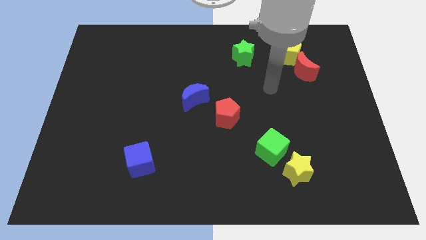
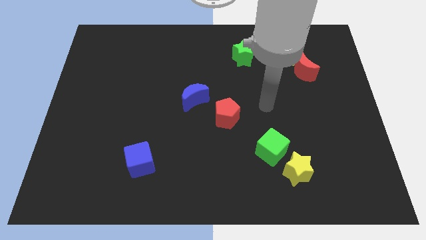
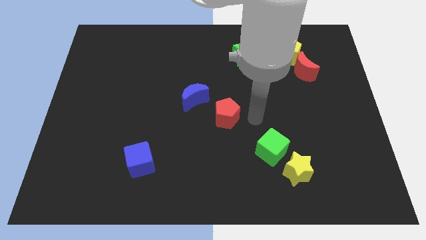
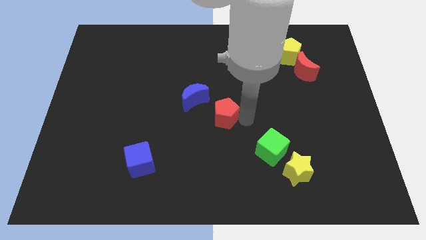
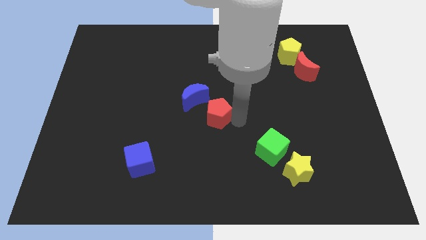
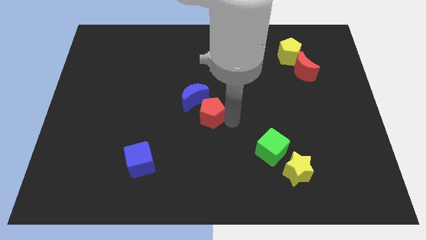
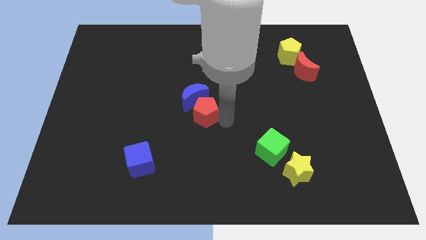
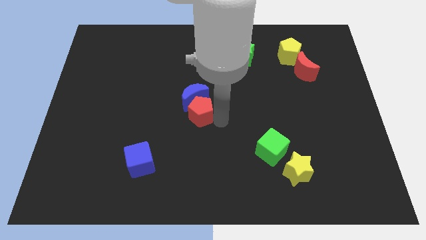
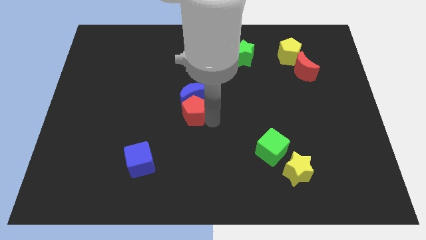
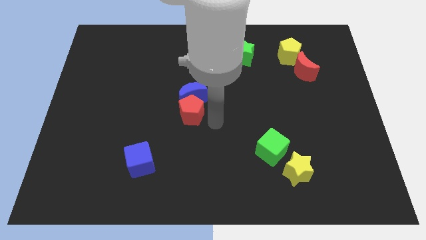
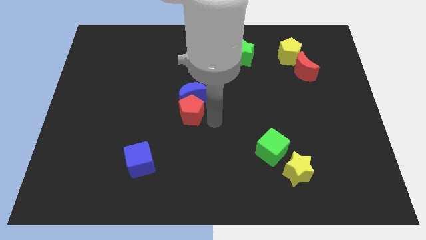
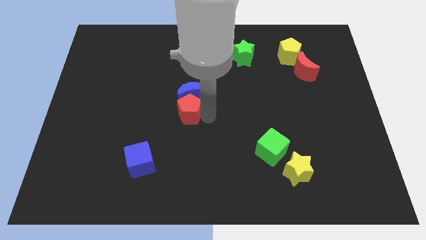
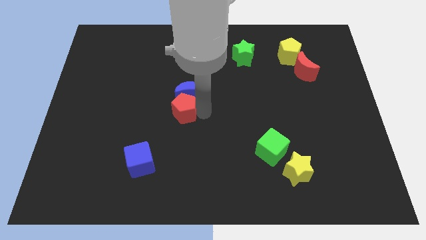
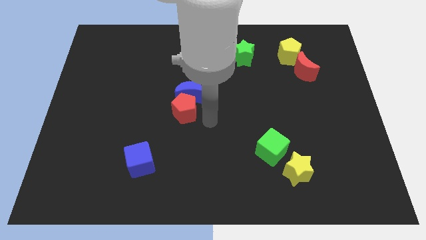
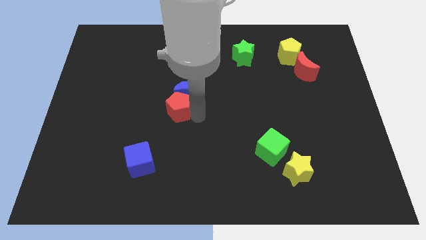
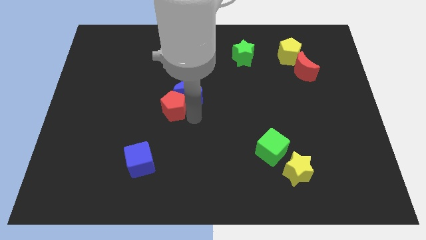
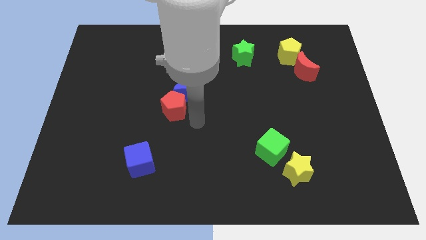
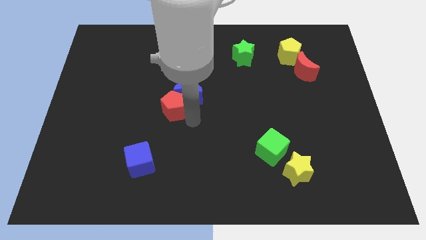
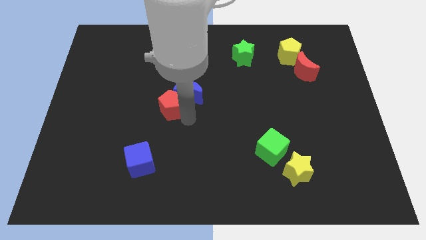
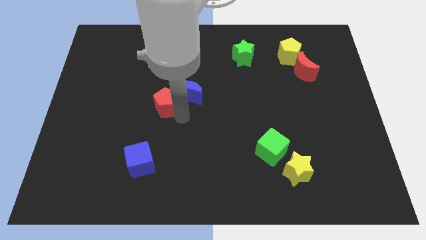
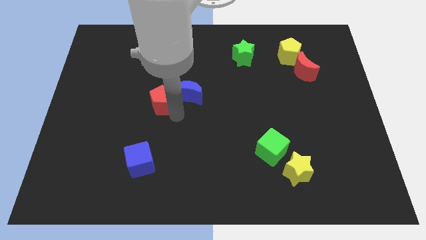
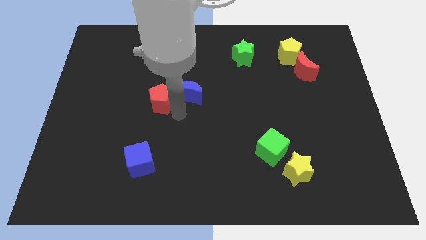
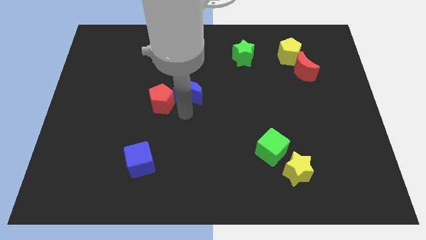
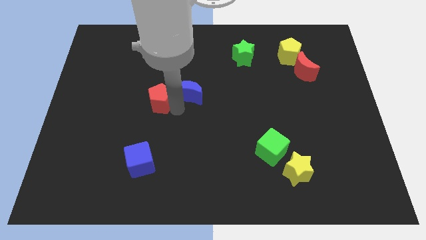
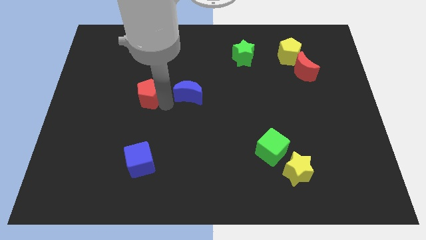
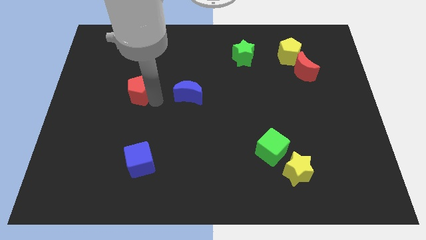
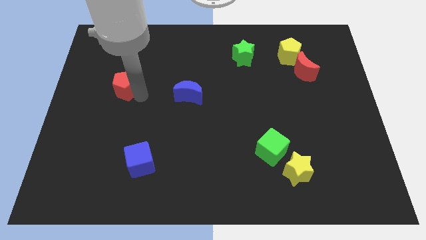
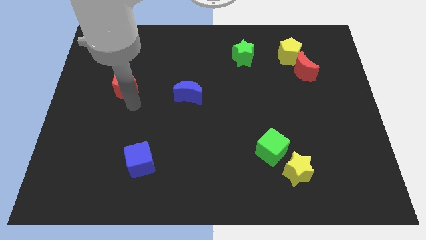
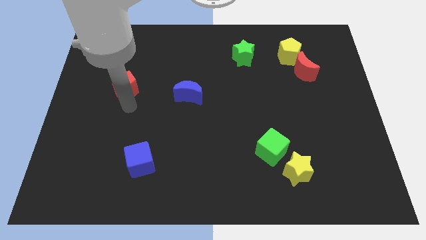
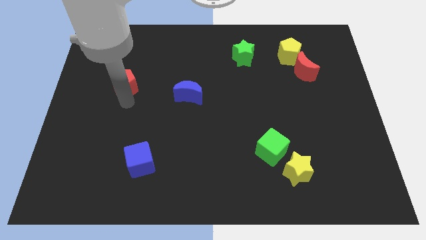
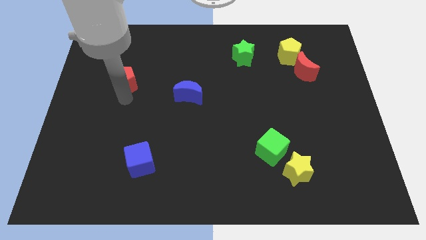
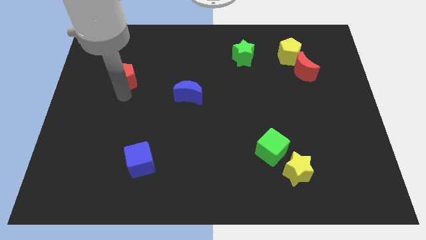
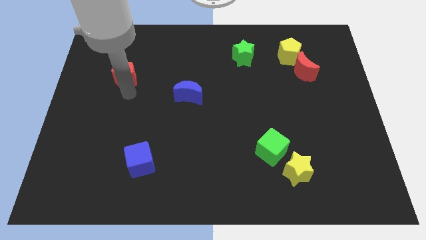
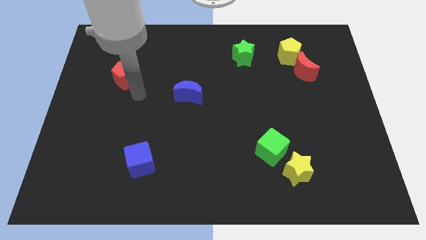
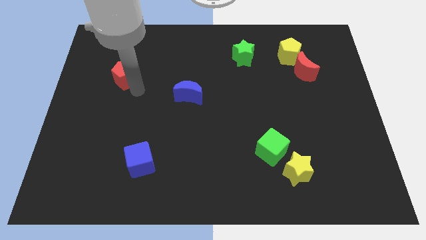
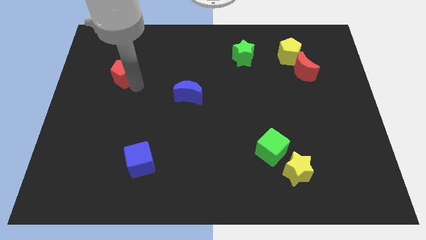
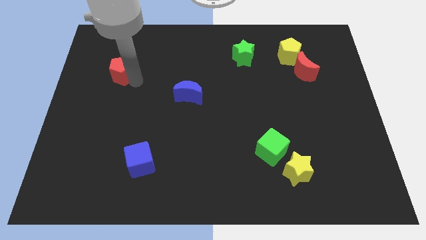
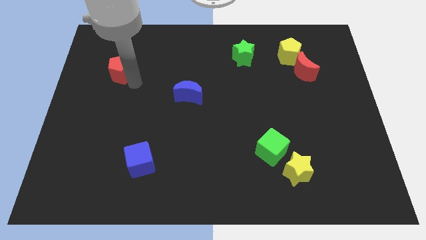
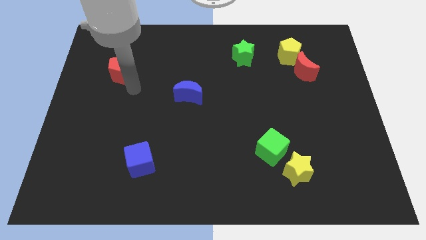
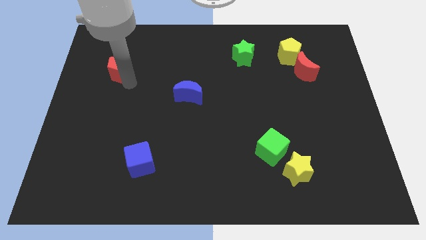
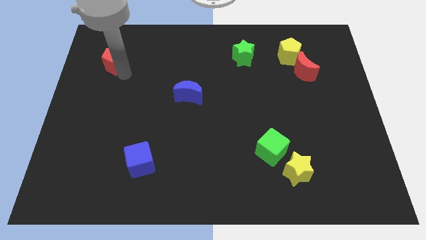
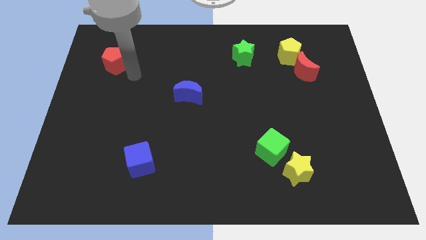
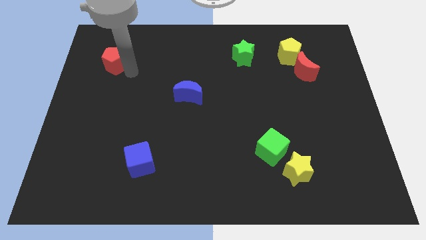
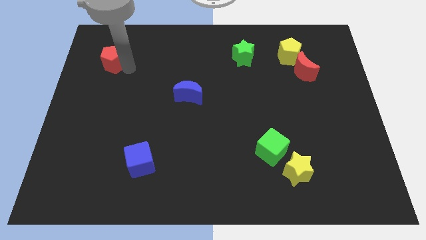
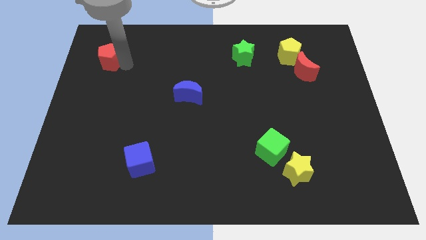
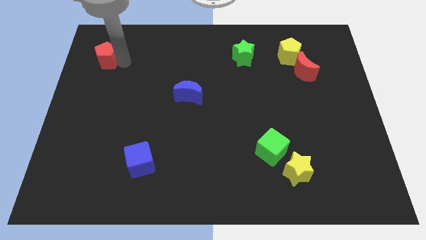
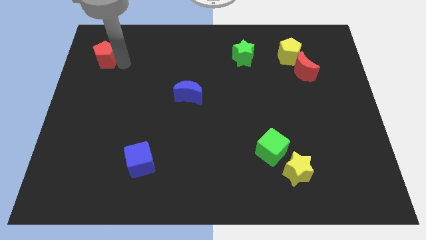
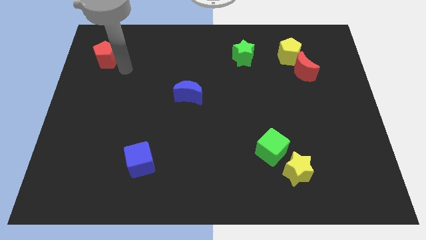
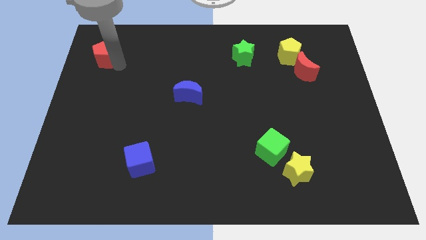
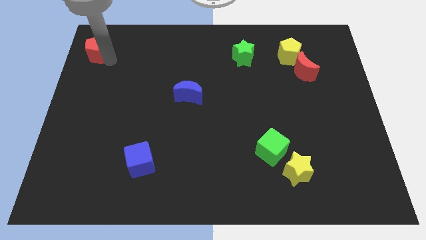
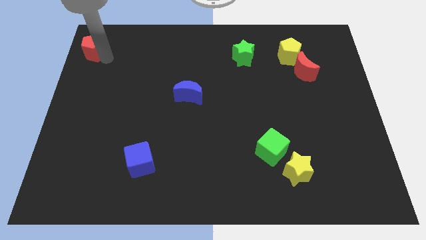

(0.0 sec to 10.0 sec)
put the red pentagon to the top left of the board

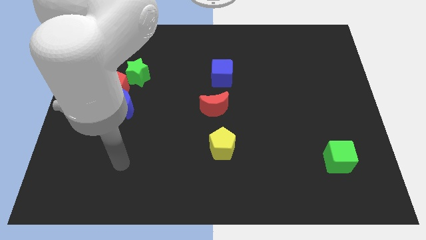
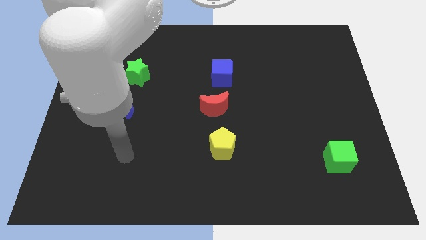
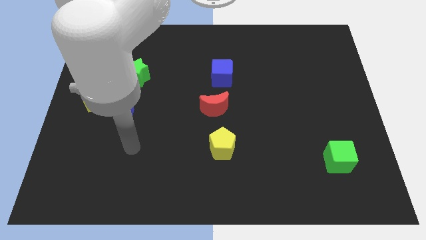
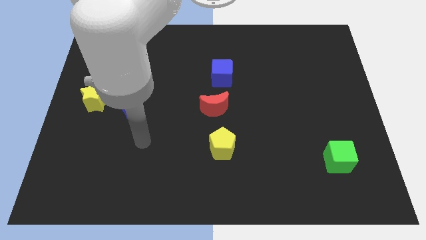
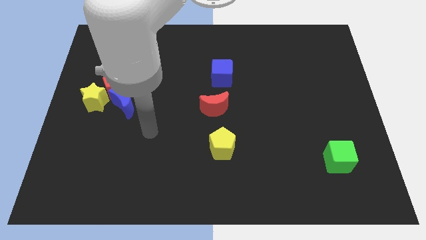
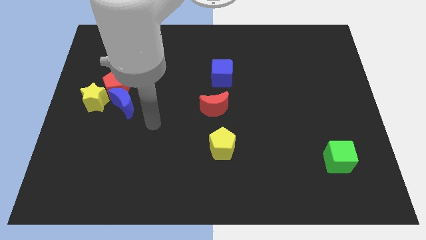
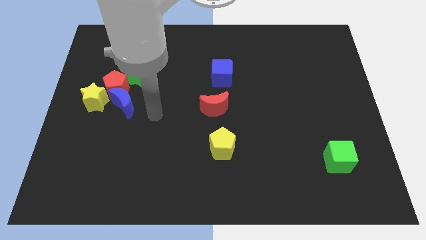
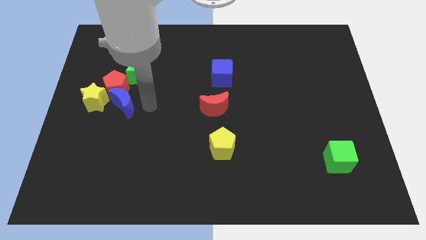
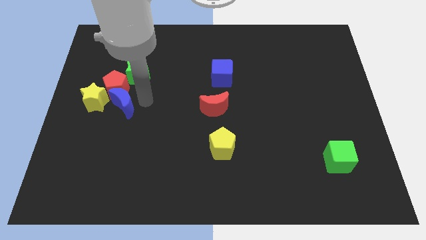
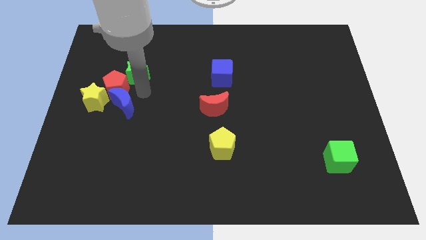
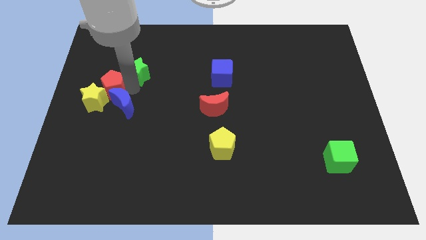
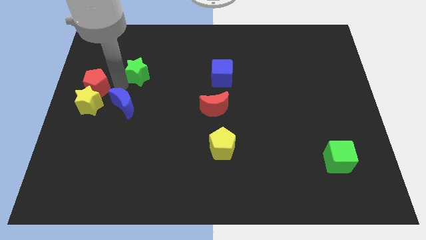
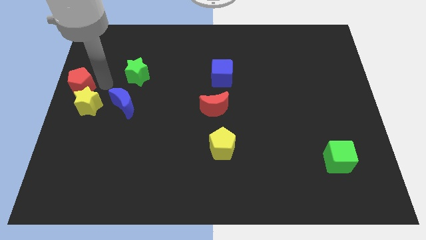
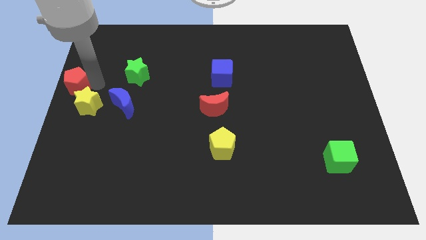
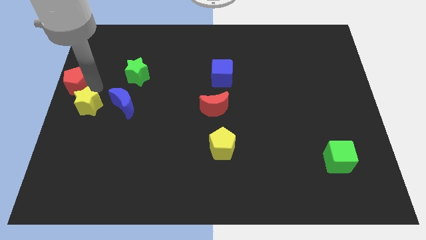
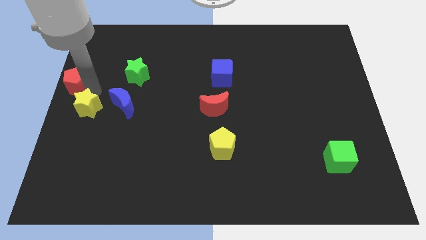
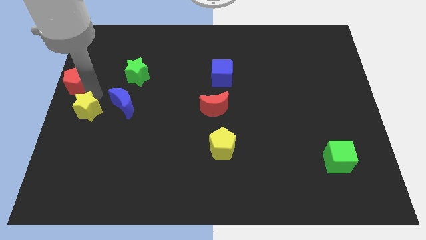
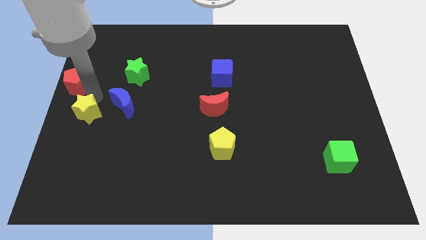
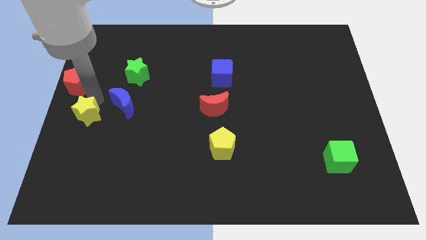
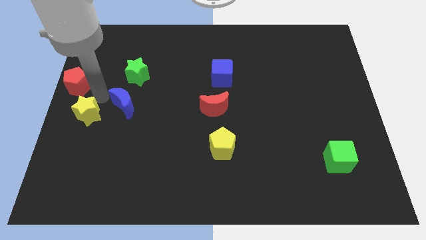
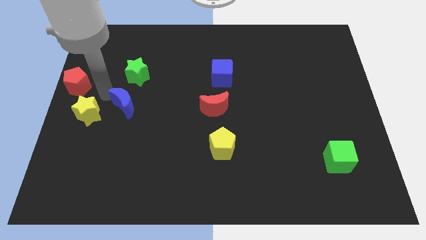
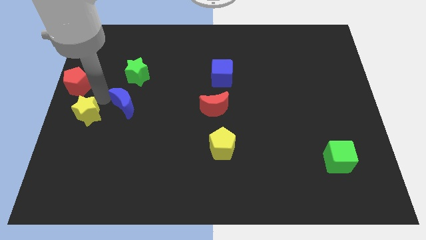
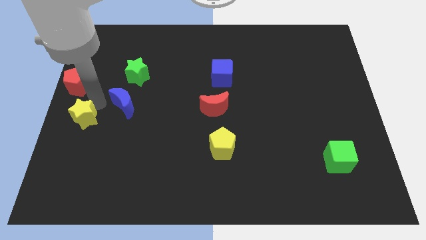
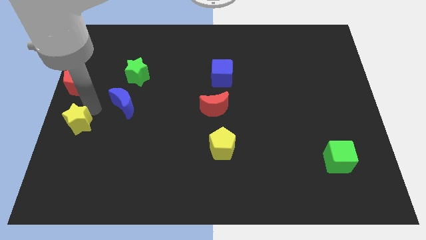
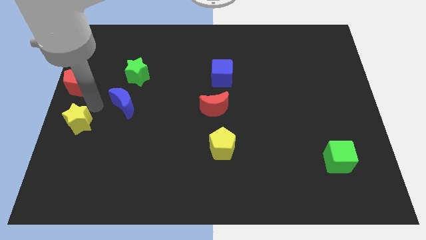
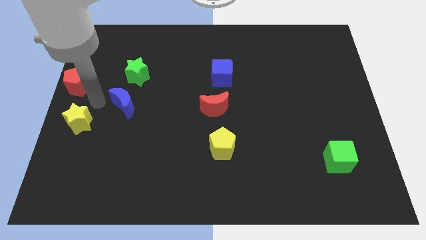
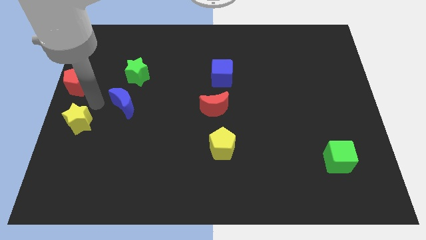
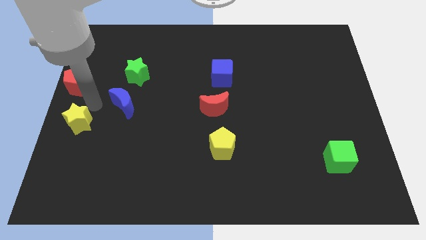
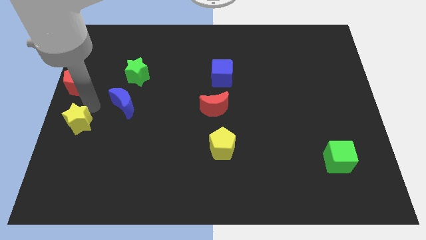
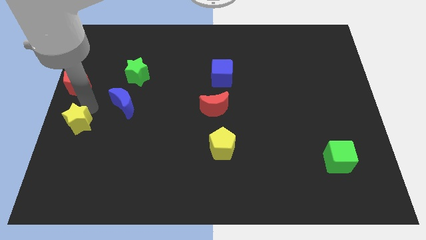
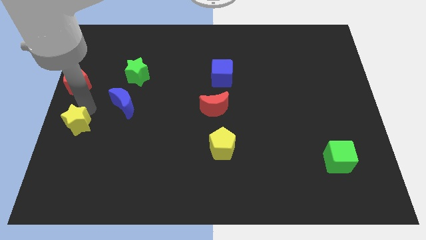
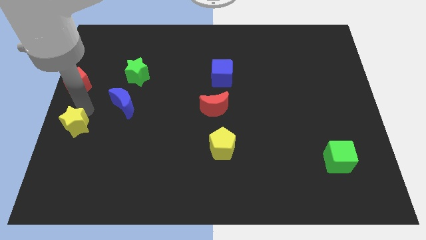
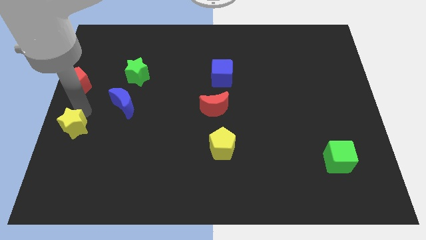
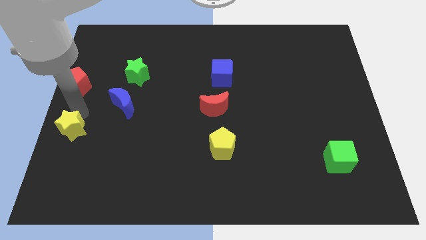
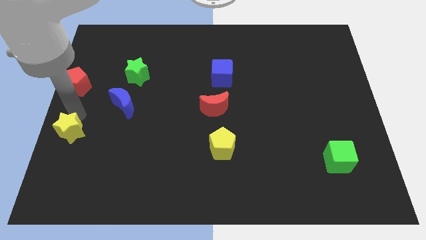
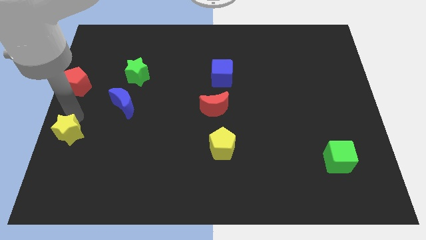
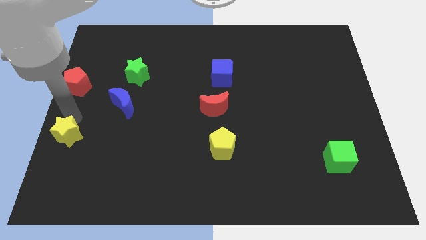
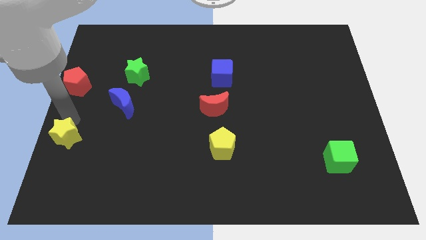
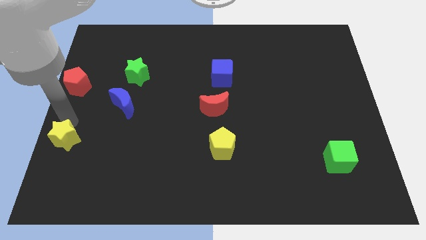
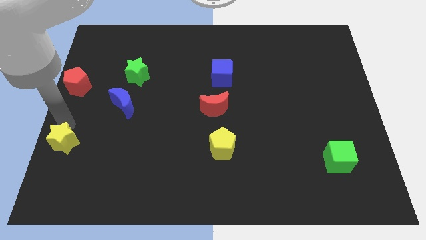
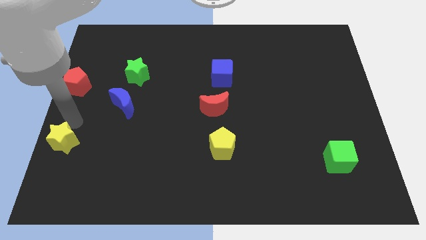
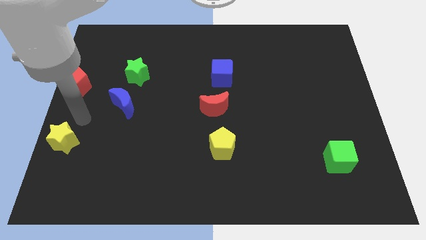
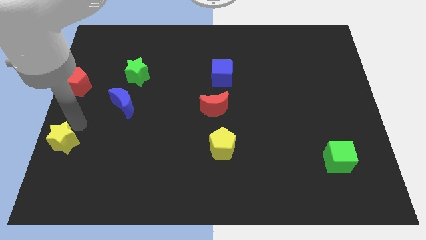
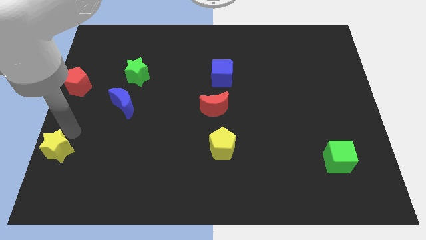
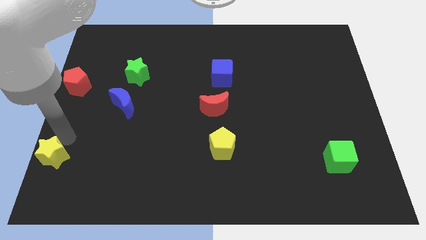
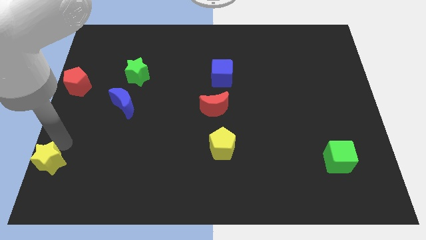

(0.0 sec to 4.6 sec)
move the yellow star to the bottom left corner
